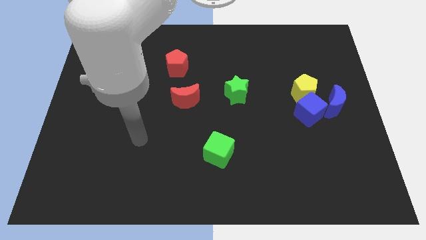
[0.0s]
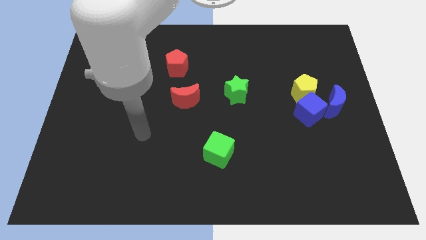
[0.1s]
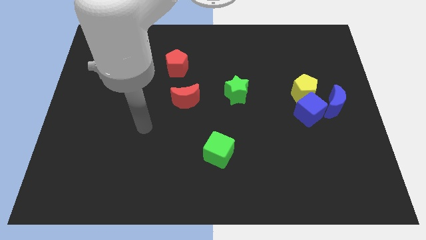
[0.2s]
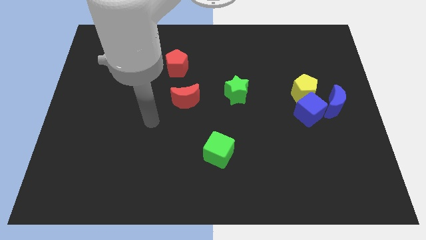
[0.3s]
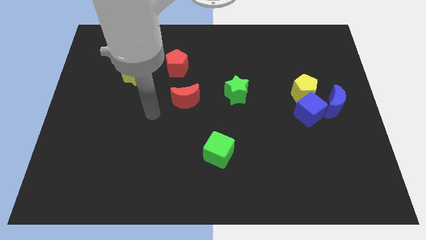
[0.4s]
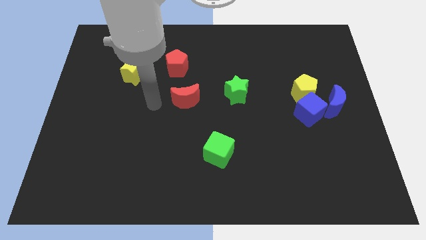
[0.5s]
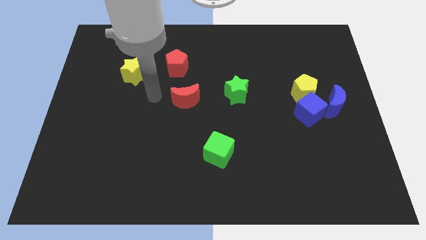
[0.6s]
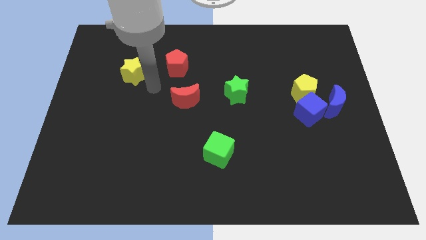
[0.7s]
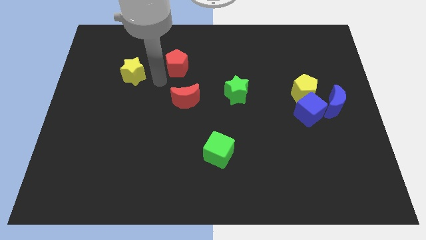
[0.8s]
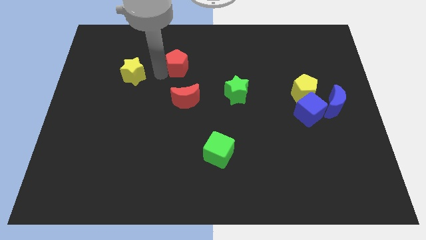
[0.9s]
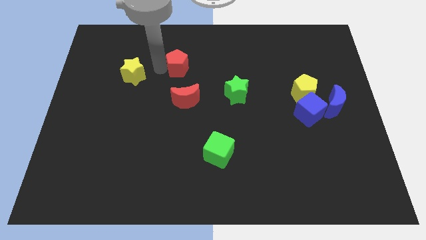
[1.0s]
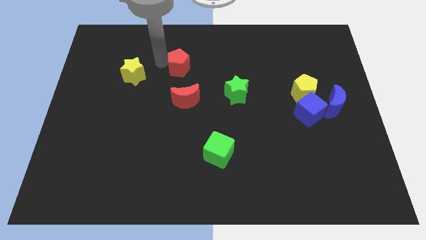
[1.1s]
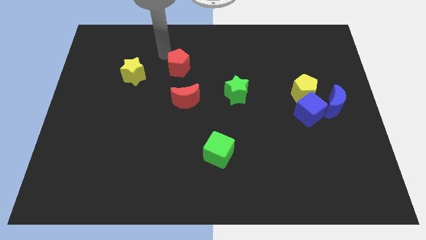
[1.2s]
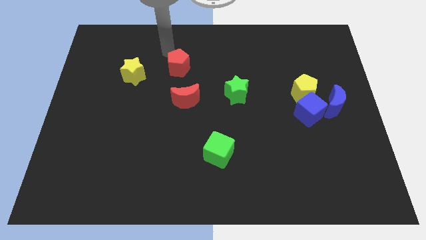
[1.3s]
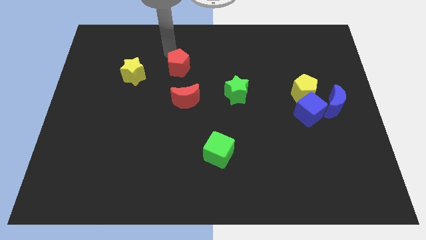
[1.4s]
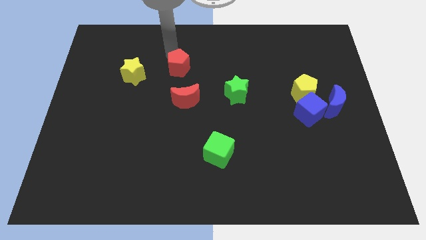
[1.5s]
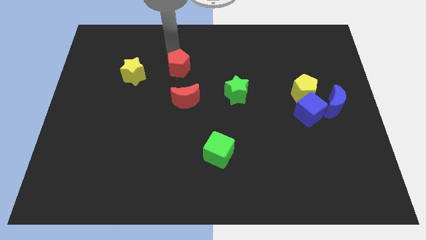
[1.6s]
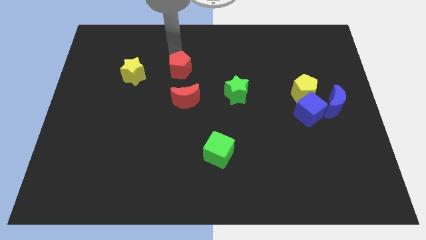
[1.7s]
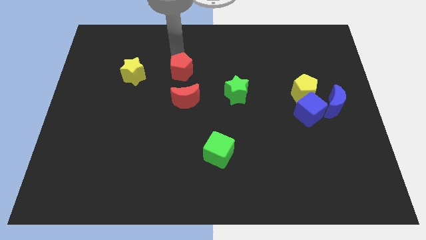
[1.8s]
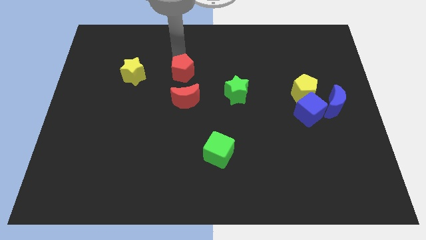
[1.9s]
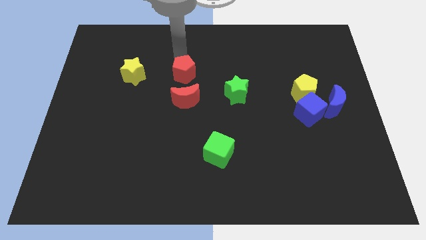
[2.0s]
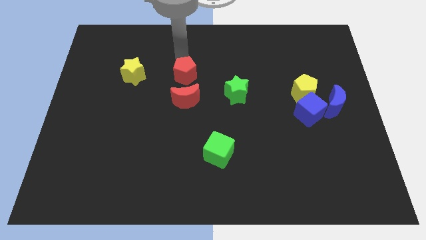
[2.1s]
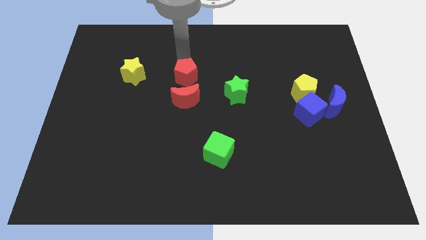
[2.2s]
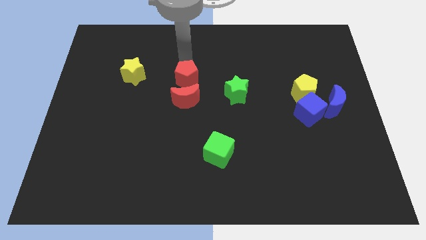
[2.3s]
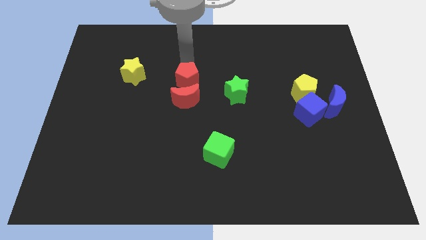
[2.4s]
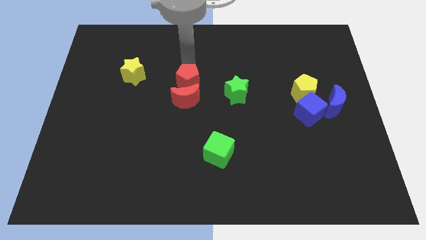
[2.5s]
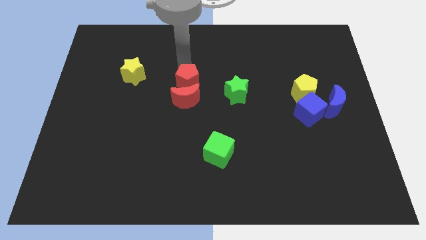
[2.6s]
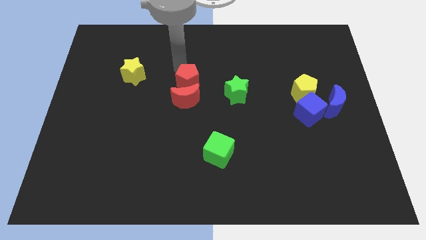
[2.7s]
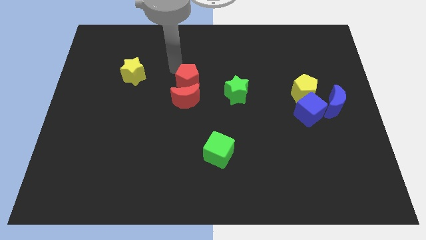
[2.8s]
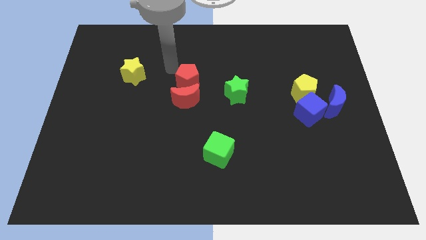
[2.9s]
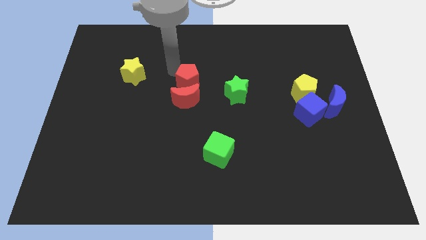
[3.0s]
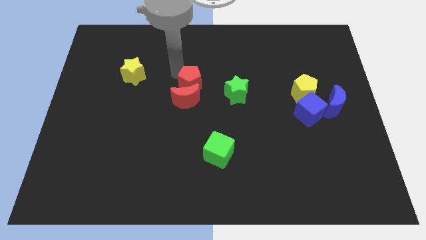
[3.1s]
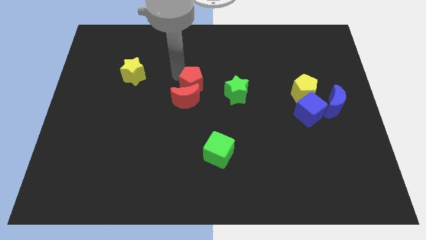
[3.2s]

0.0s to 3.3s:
slide the red pentagon down and then right a little

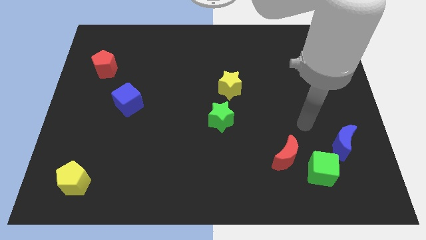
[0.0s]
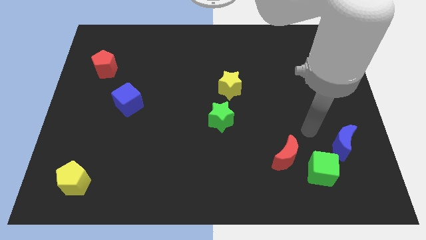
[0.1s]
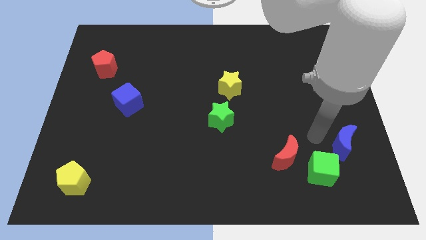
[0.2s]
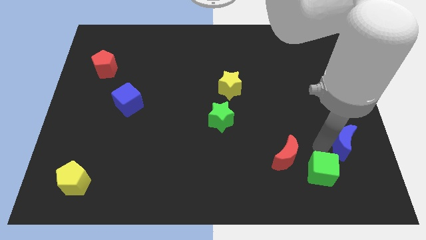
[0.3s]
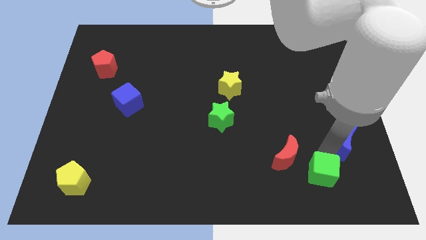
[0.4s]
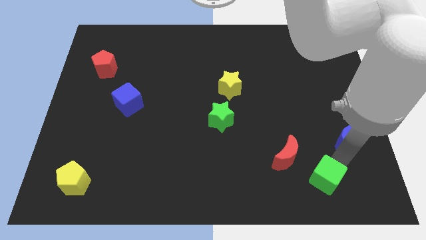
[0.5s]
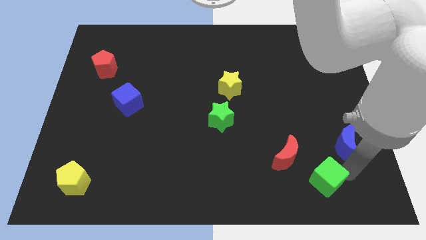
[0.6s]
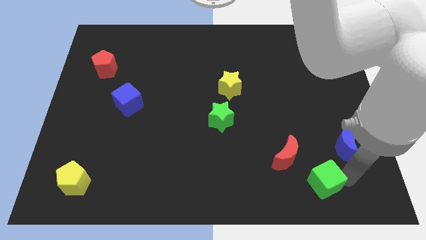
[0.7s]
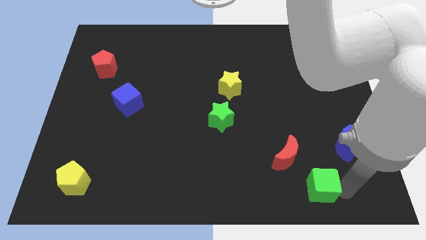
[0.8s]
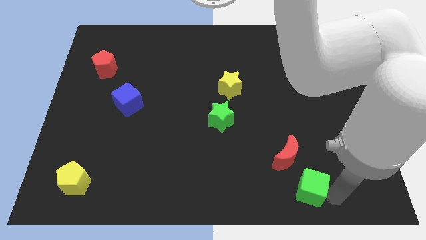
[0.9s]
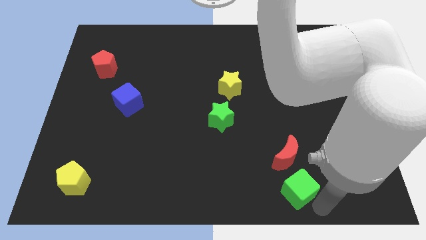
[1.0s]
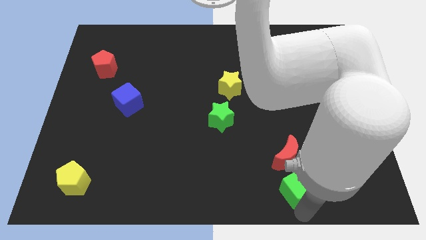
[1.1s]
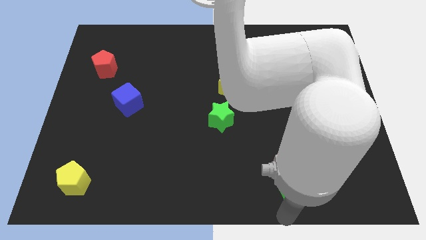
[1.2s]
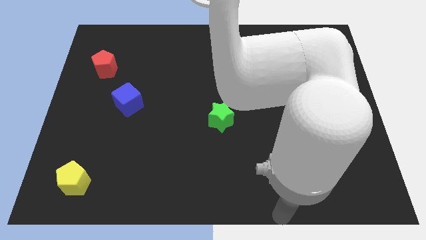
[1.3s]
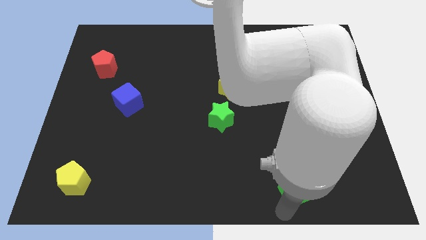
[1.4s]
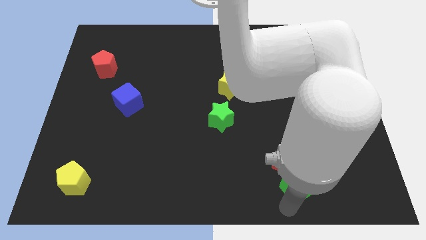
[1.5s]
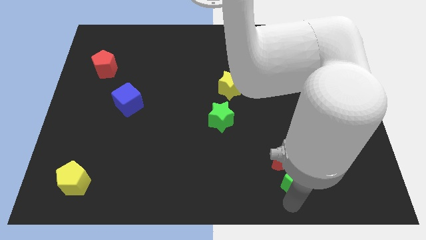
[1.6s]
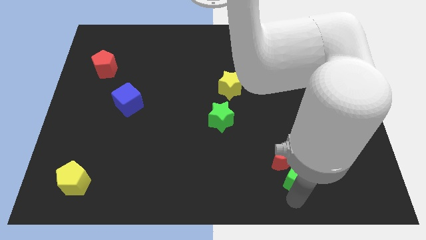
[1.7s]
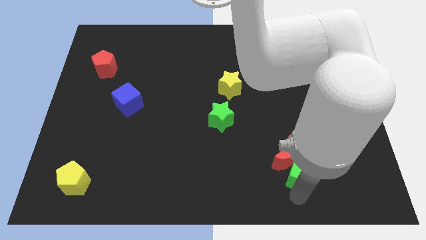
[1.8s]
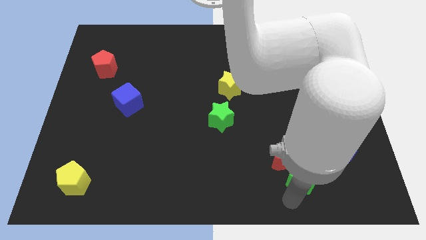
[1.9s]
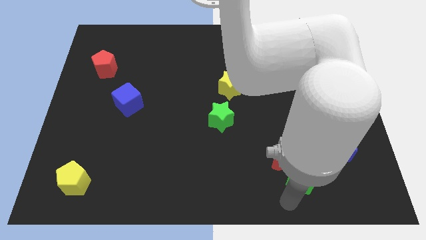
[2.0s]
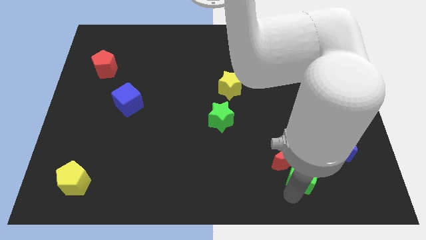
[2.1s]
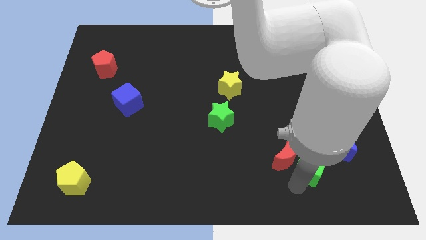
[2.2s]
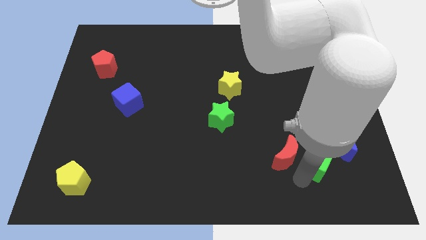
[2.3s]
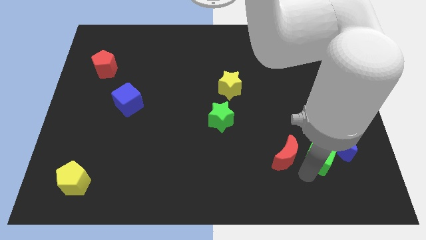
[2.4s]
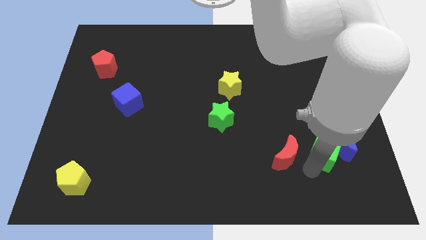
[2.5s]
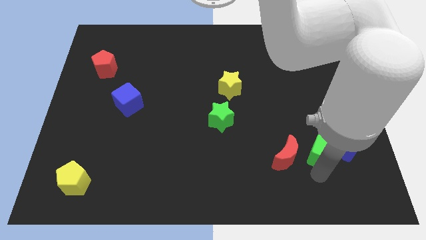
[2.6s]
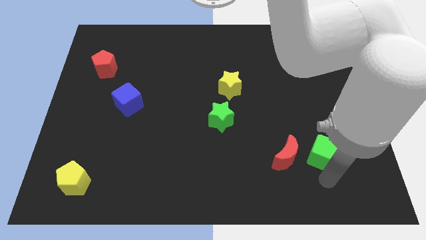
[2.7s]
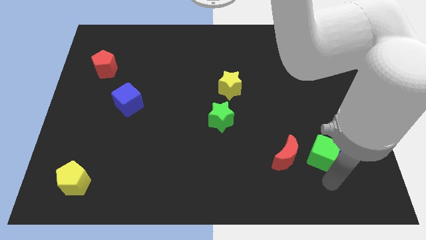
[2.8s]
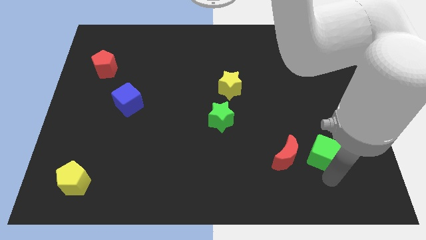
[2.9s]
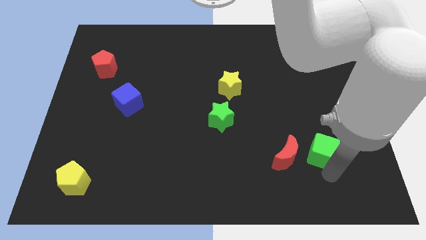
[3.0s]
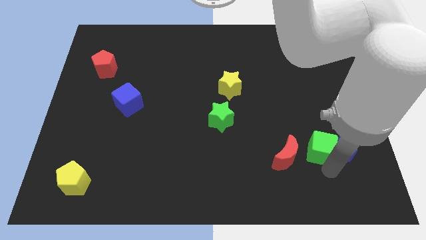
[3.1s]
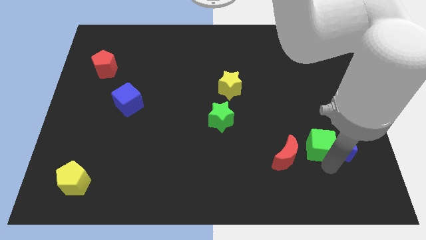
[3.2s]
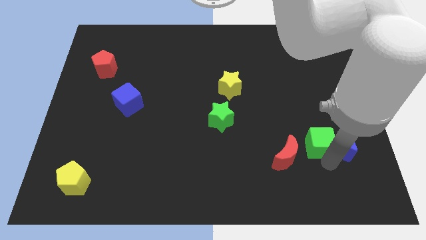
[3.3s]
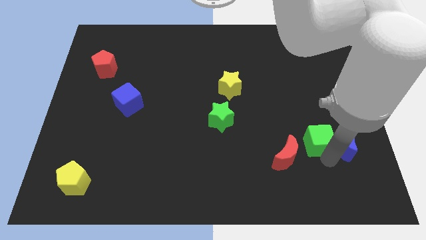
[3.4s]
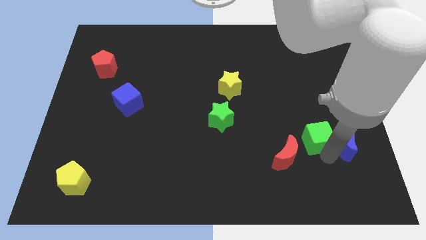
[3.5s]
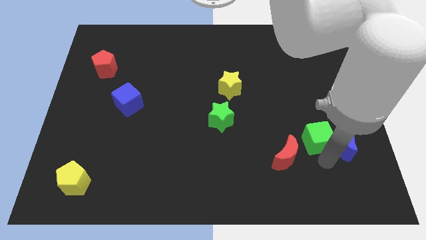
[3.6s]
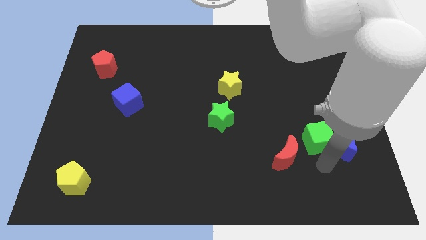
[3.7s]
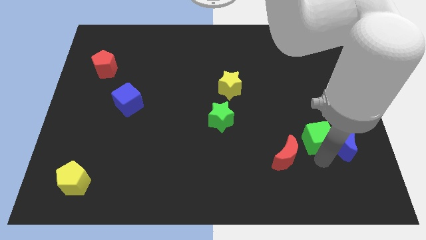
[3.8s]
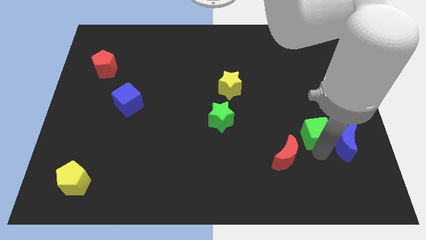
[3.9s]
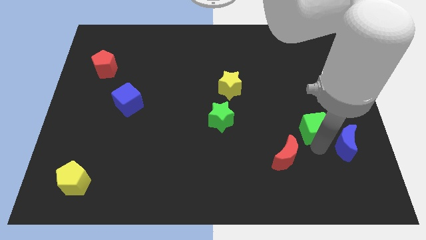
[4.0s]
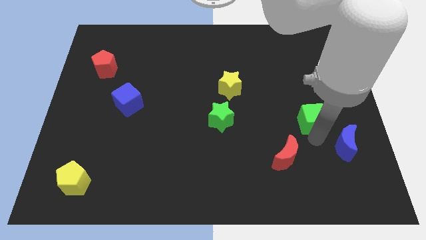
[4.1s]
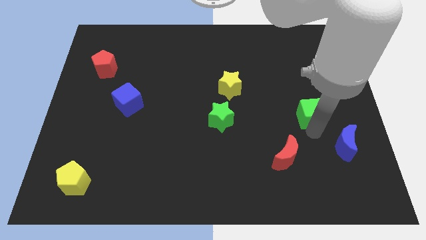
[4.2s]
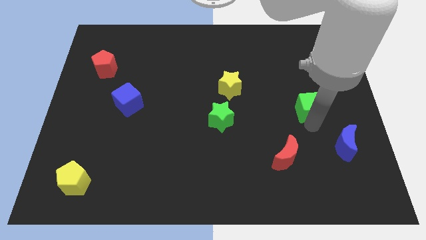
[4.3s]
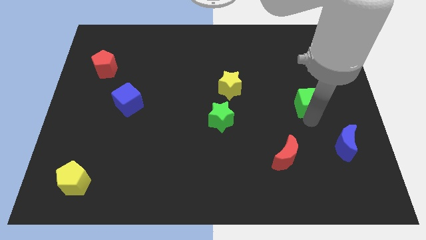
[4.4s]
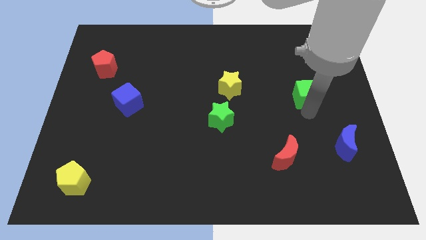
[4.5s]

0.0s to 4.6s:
slide the green cube up
